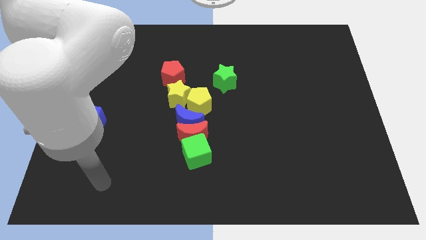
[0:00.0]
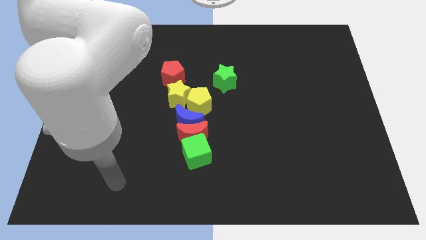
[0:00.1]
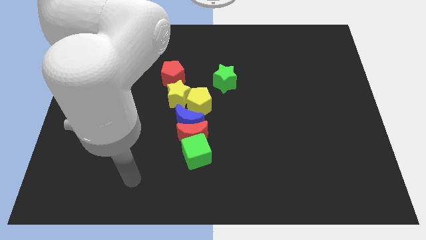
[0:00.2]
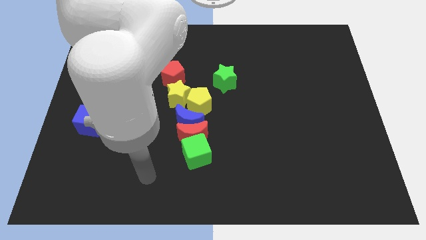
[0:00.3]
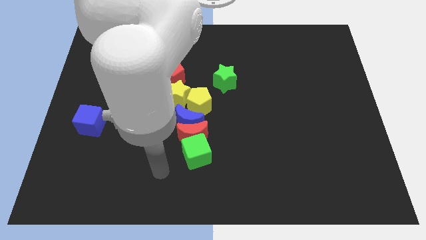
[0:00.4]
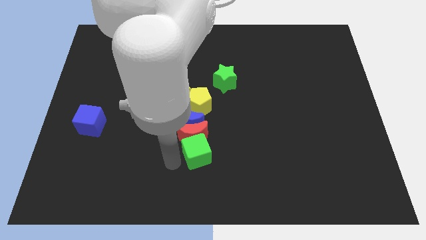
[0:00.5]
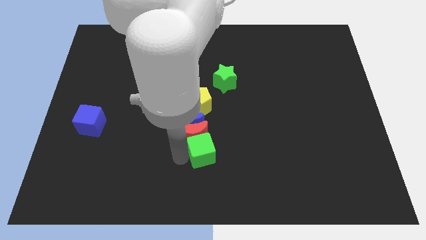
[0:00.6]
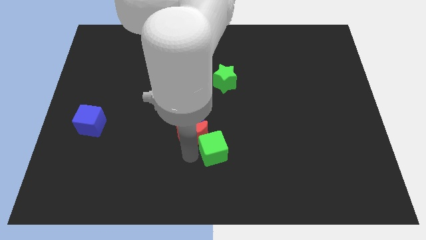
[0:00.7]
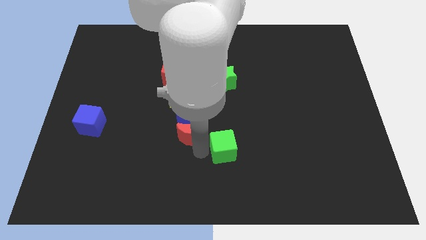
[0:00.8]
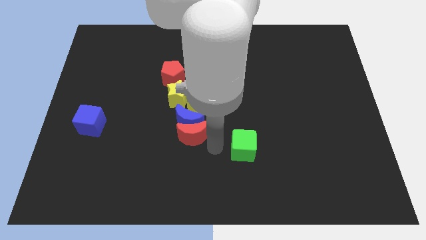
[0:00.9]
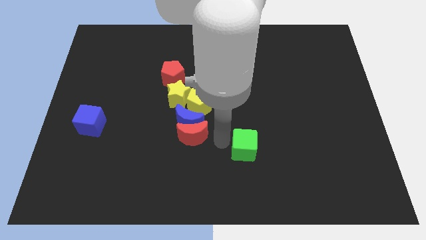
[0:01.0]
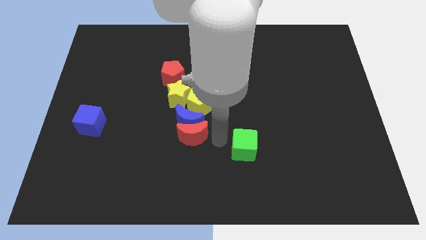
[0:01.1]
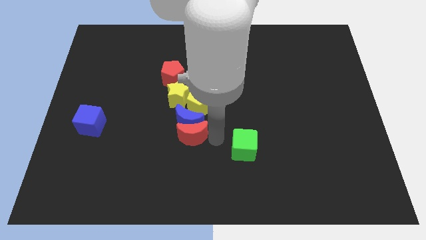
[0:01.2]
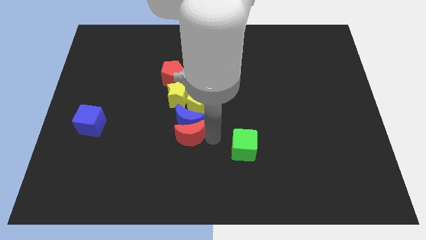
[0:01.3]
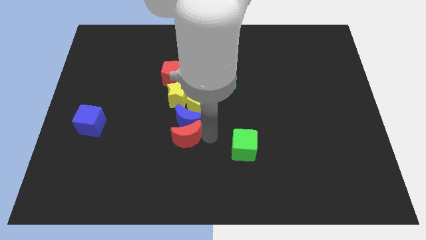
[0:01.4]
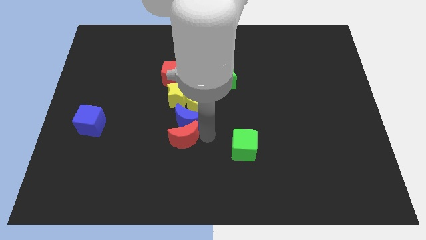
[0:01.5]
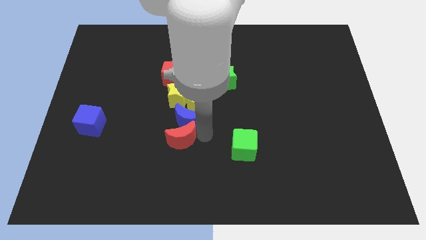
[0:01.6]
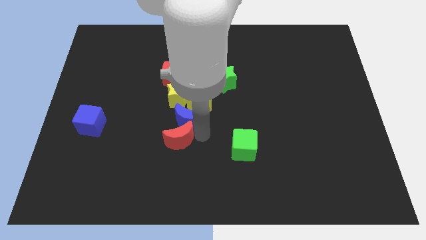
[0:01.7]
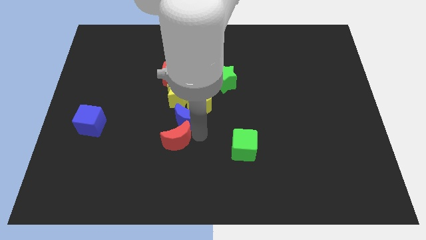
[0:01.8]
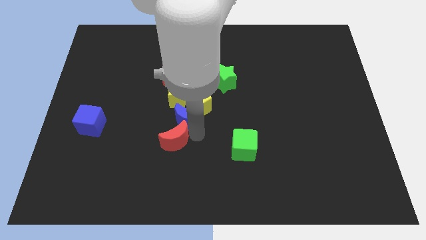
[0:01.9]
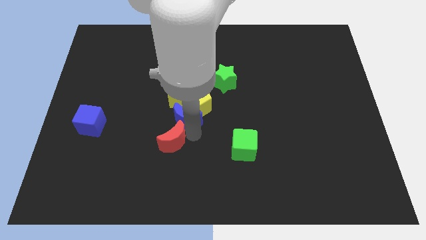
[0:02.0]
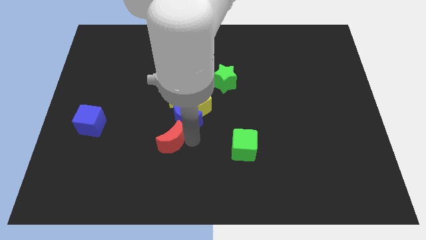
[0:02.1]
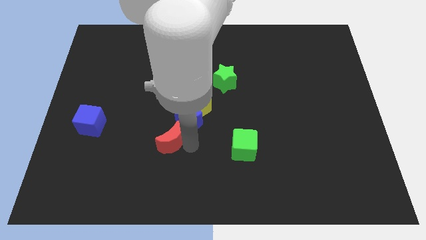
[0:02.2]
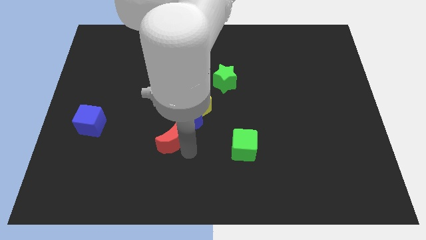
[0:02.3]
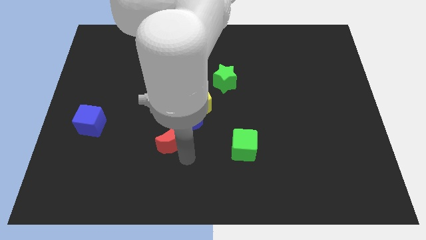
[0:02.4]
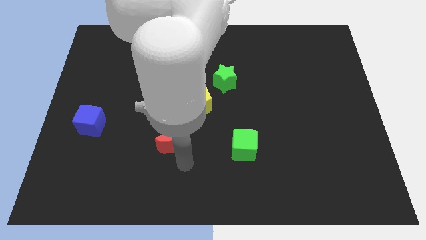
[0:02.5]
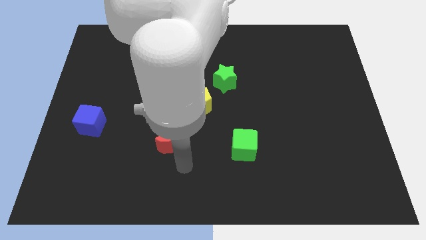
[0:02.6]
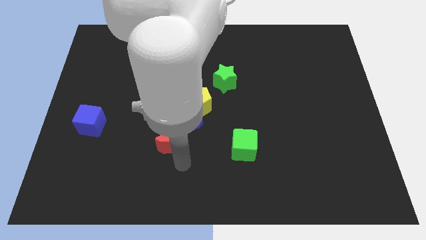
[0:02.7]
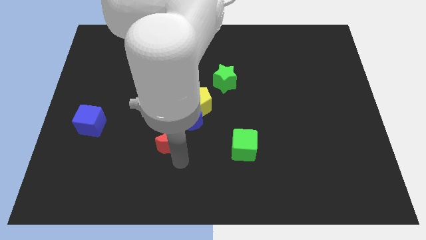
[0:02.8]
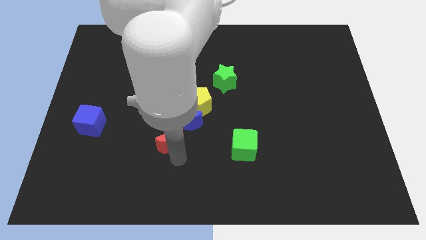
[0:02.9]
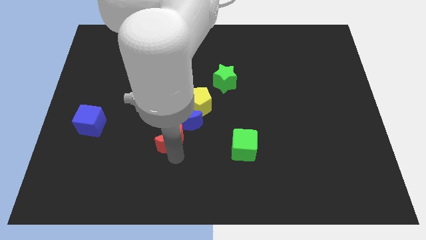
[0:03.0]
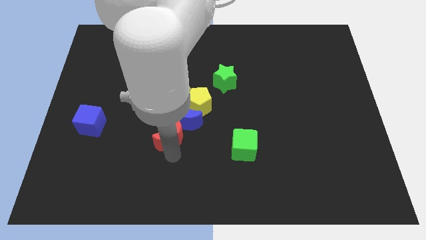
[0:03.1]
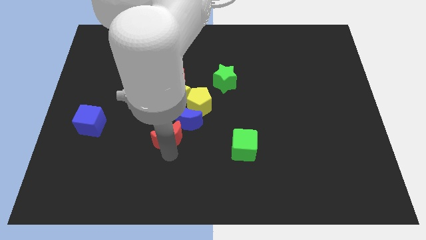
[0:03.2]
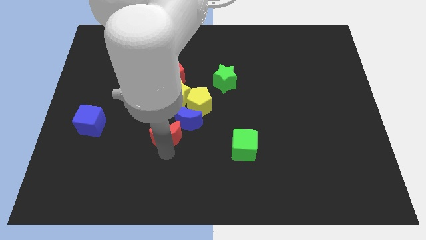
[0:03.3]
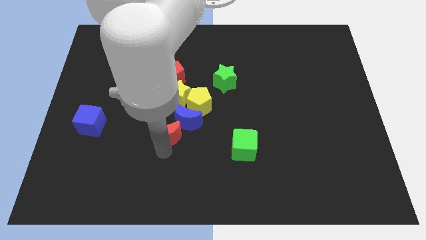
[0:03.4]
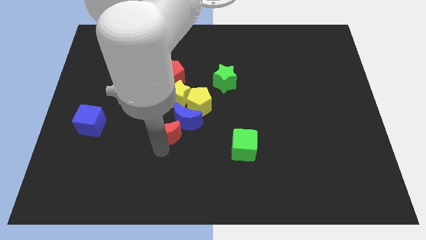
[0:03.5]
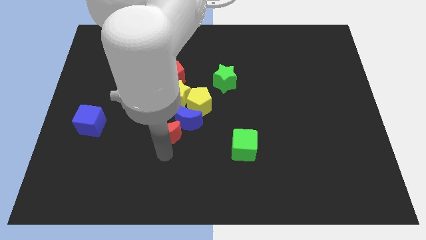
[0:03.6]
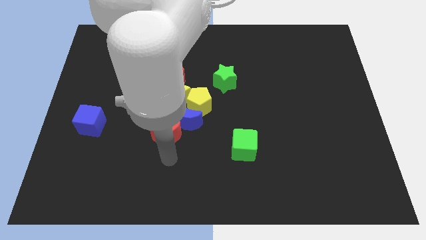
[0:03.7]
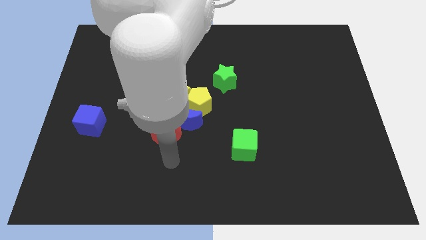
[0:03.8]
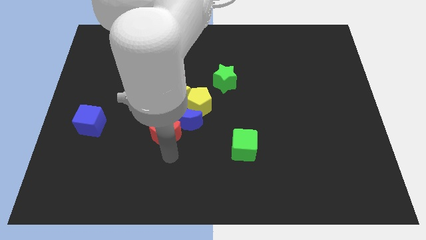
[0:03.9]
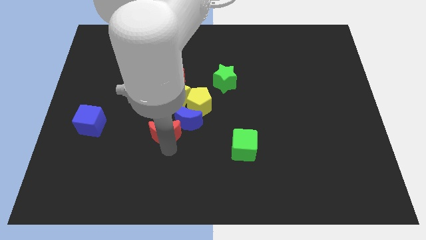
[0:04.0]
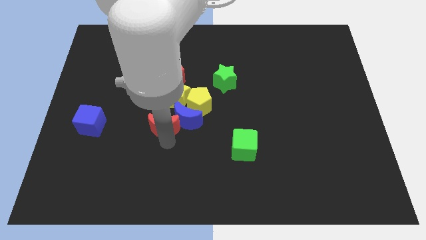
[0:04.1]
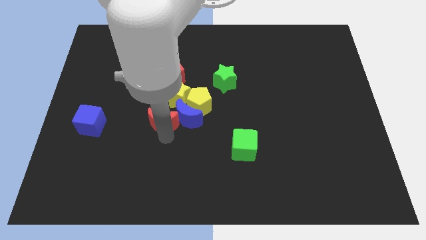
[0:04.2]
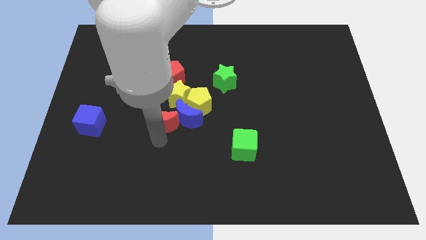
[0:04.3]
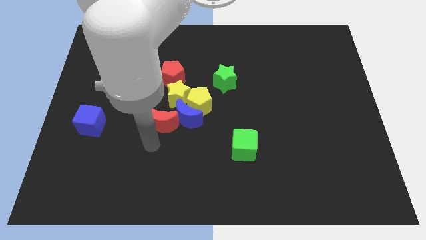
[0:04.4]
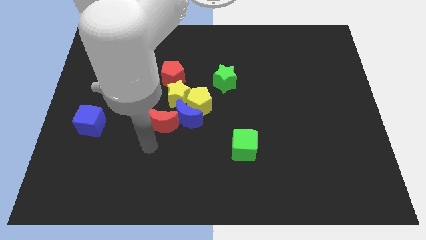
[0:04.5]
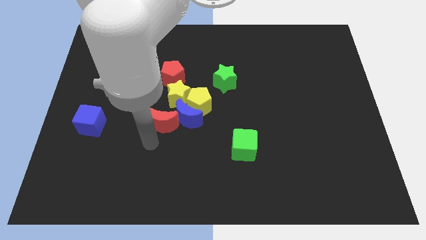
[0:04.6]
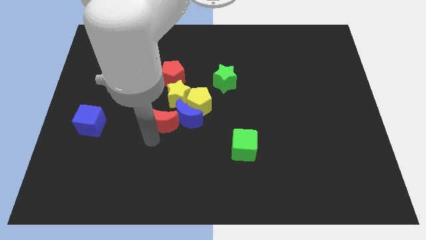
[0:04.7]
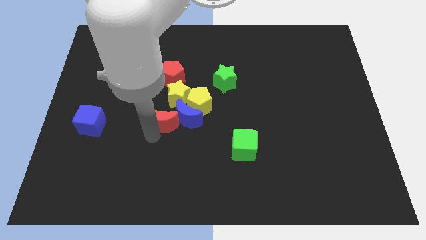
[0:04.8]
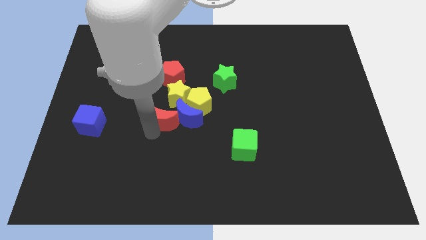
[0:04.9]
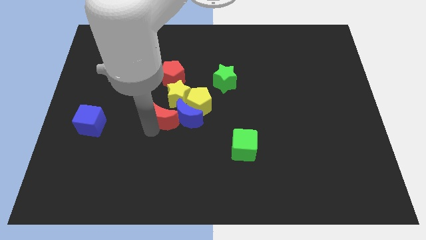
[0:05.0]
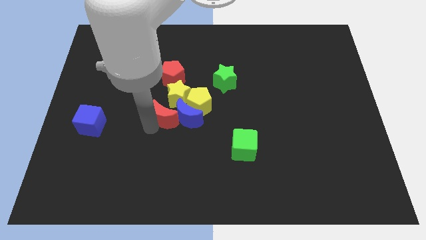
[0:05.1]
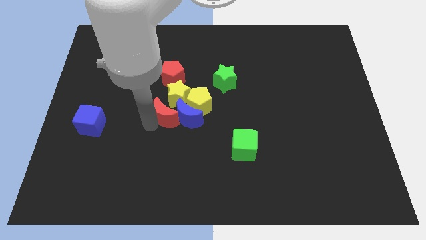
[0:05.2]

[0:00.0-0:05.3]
move the red moon towards the yellow star

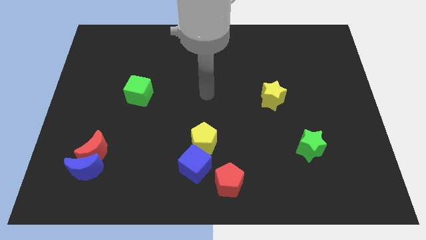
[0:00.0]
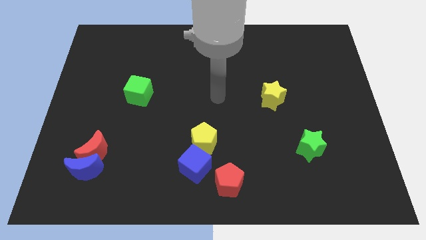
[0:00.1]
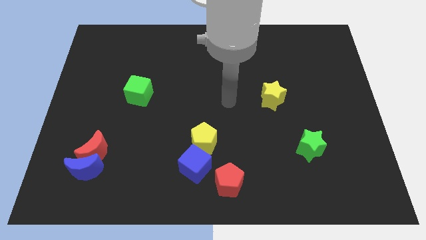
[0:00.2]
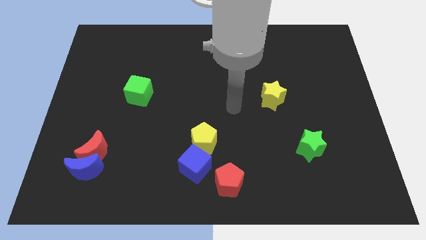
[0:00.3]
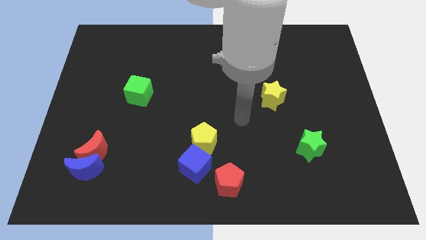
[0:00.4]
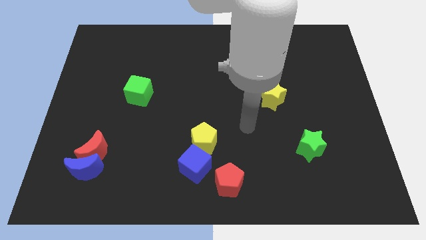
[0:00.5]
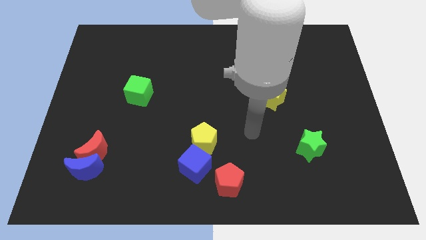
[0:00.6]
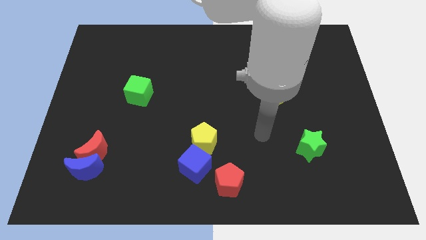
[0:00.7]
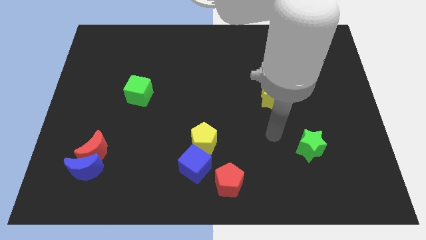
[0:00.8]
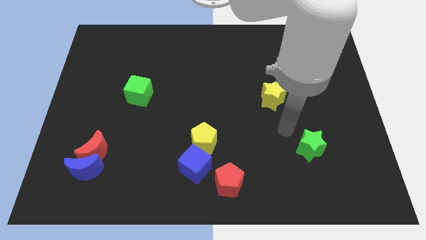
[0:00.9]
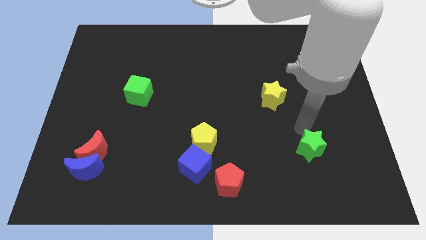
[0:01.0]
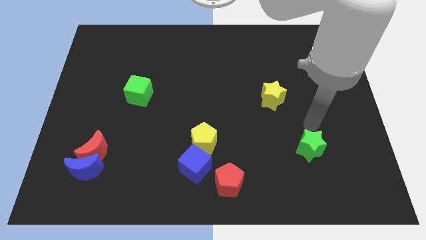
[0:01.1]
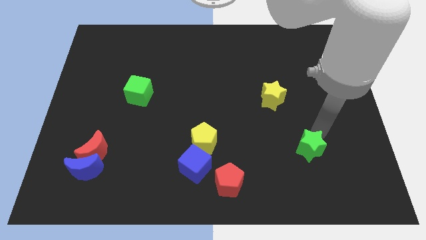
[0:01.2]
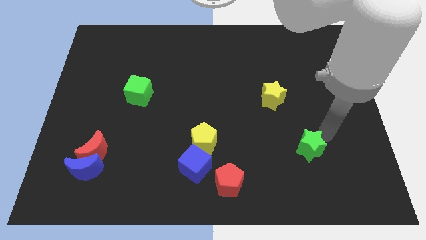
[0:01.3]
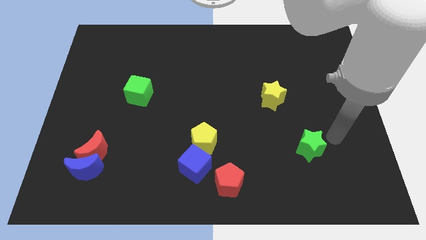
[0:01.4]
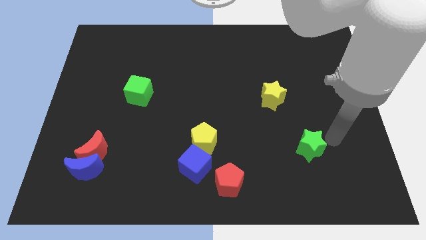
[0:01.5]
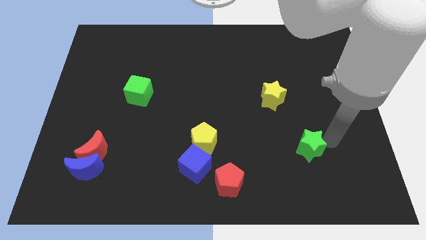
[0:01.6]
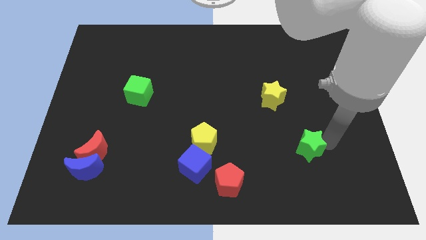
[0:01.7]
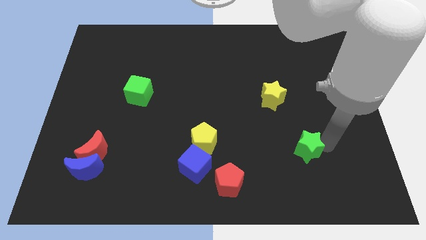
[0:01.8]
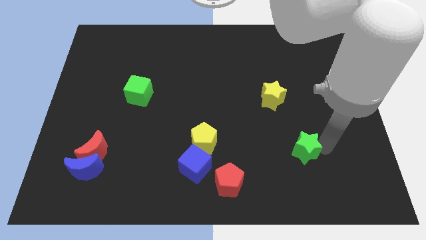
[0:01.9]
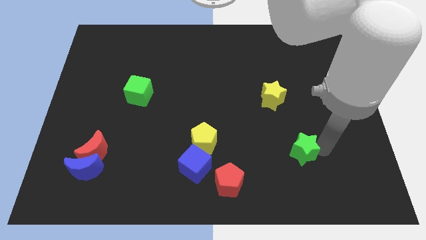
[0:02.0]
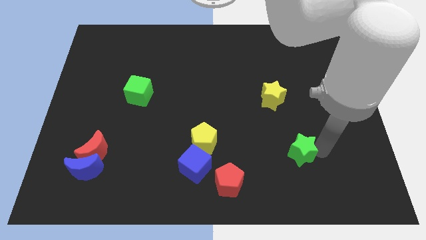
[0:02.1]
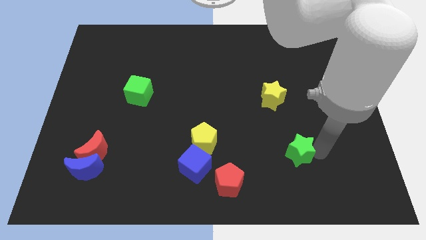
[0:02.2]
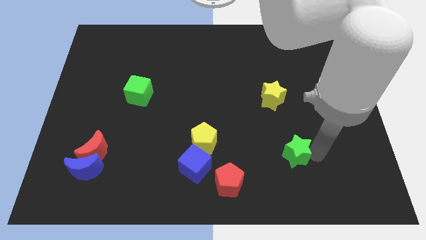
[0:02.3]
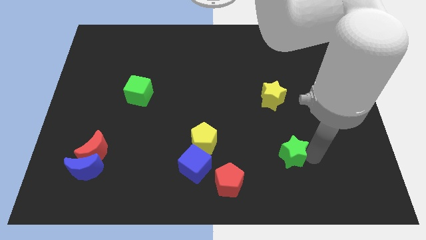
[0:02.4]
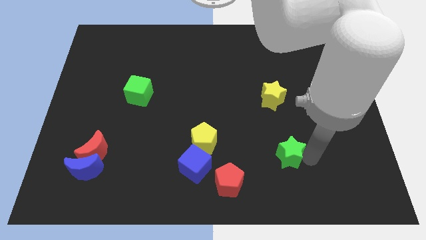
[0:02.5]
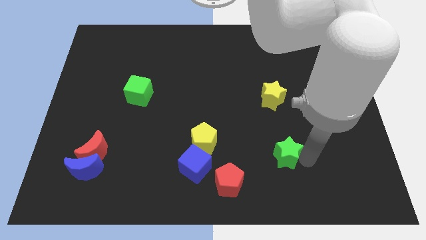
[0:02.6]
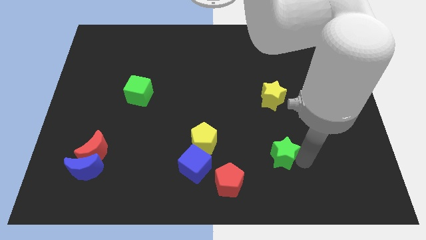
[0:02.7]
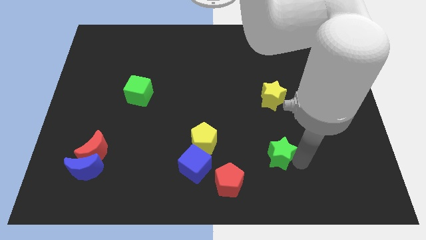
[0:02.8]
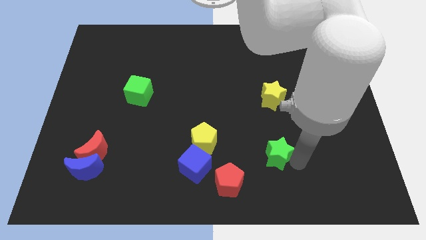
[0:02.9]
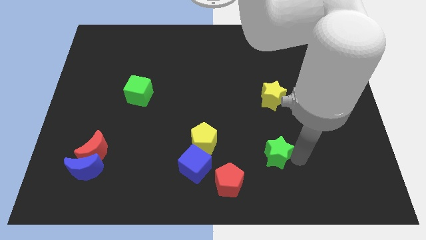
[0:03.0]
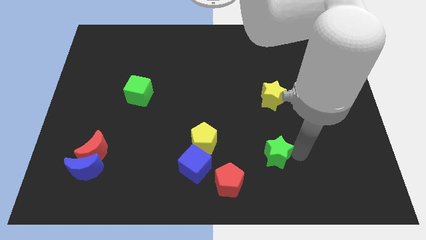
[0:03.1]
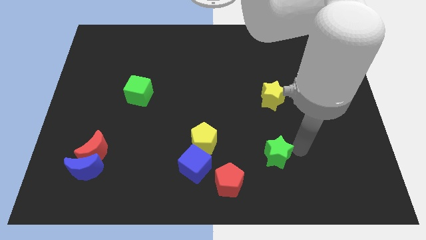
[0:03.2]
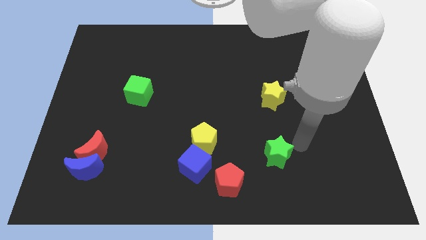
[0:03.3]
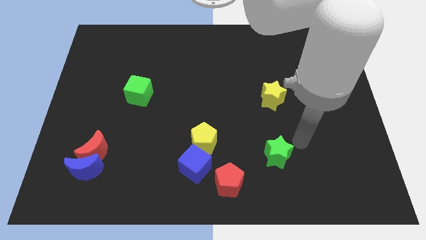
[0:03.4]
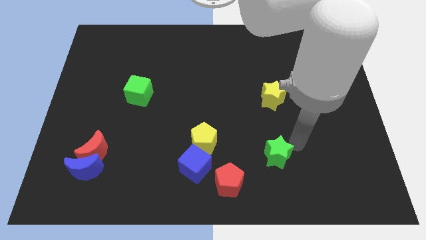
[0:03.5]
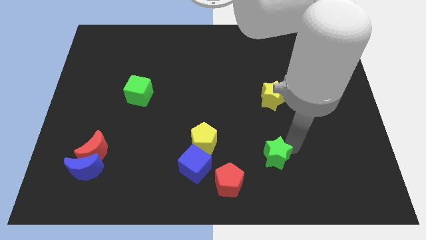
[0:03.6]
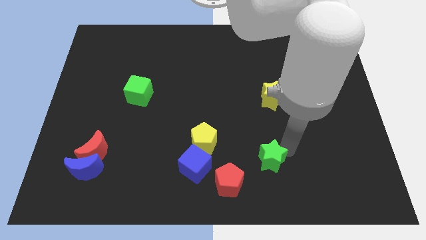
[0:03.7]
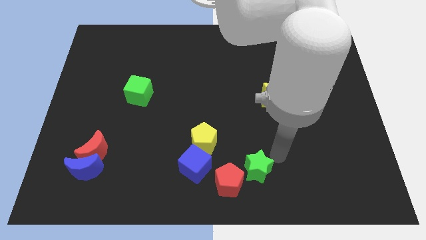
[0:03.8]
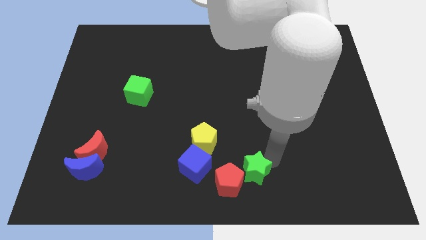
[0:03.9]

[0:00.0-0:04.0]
slide the green star towards the red pentagon
